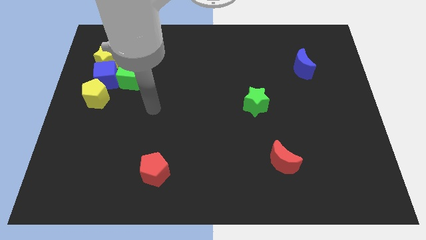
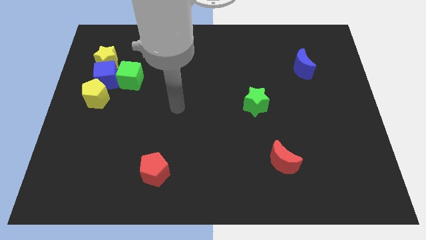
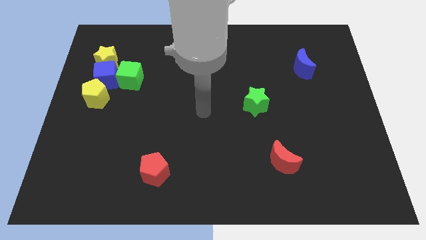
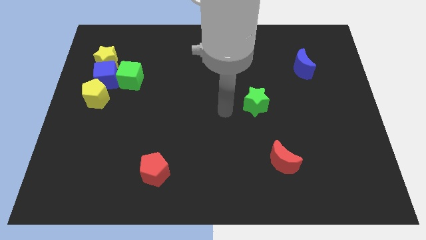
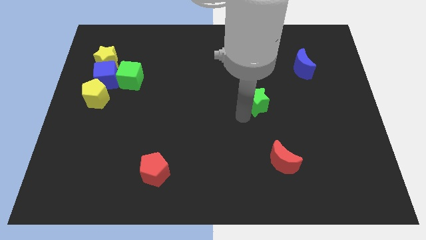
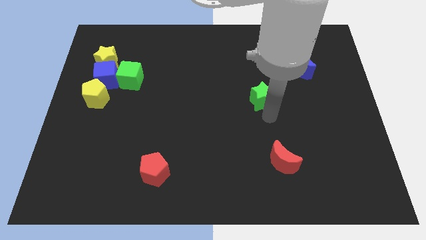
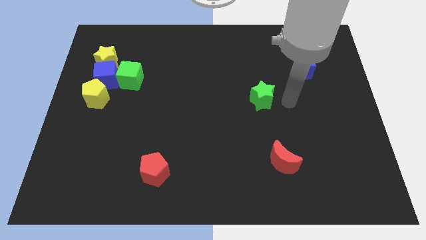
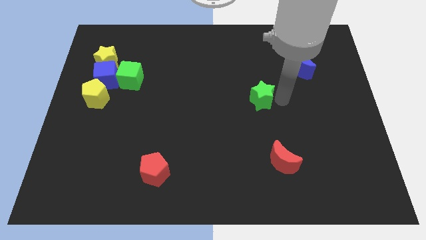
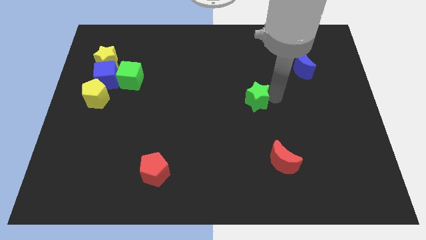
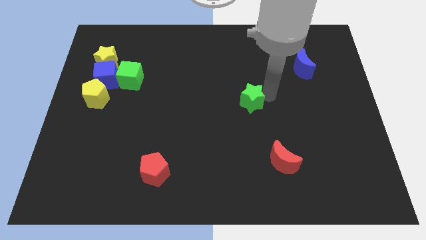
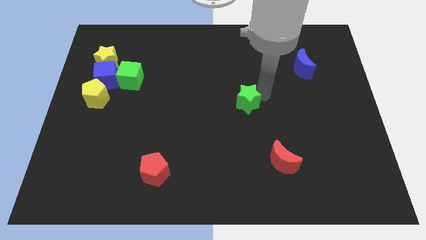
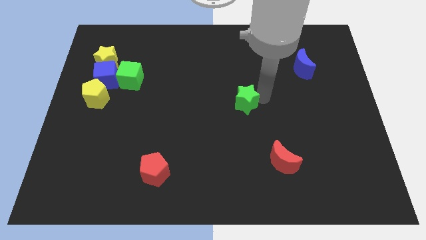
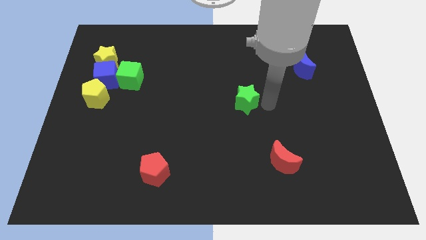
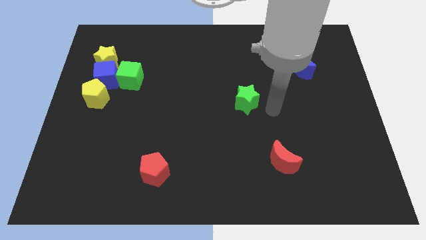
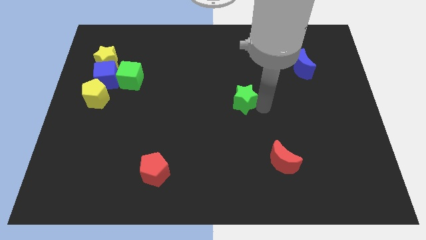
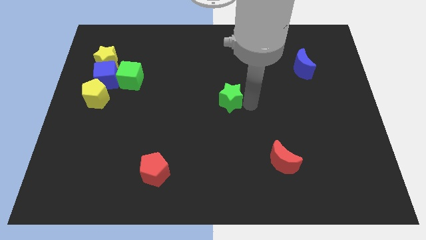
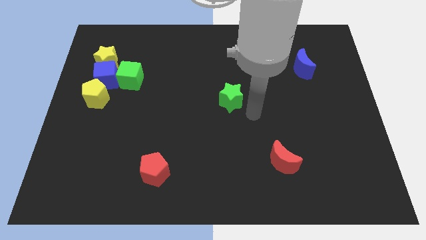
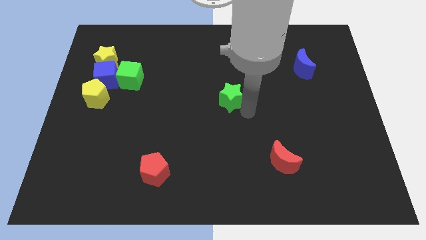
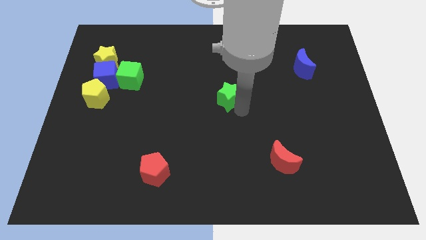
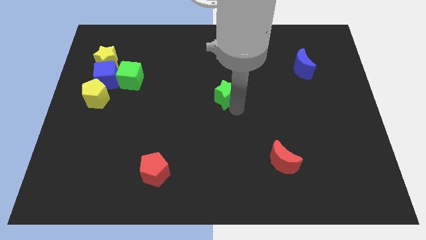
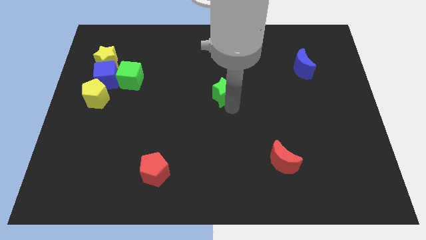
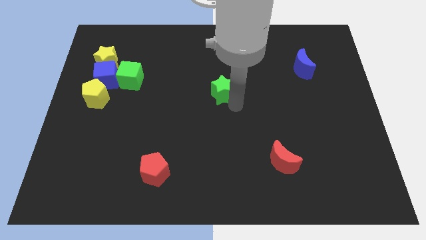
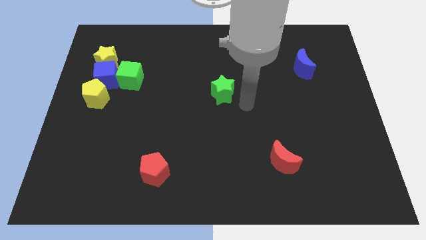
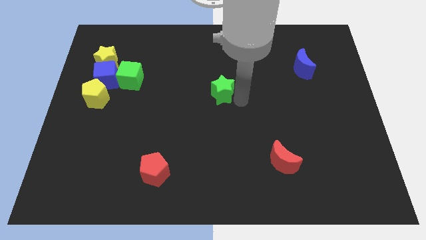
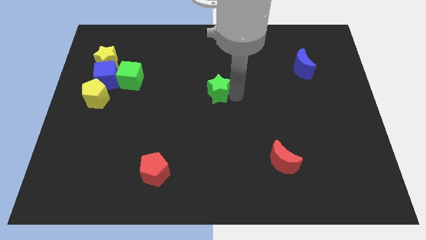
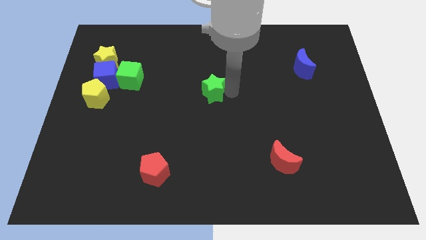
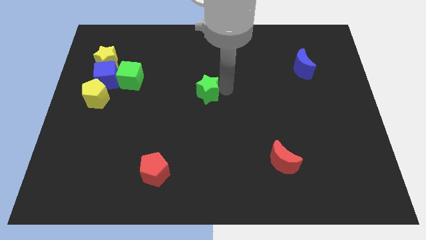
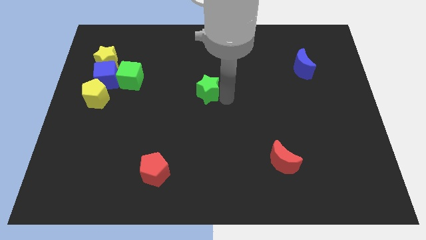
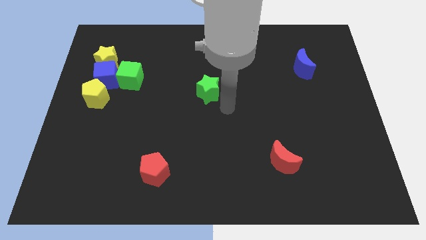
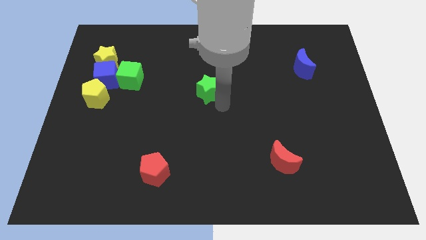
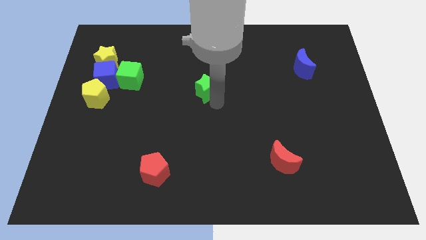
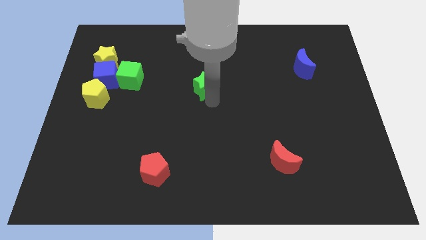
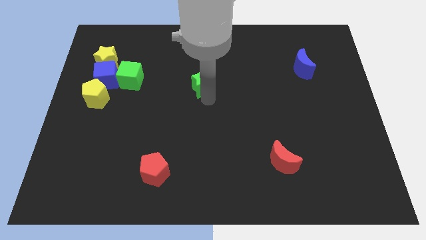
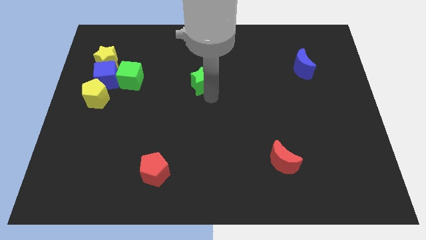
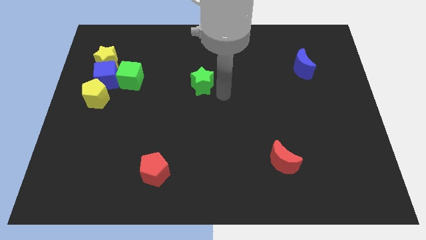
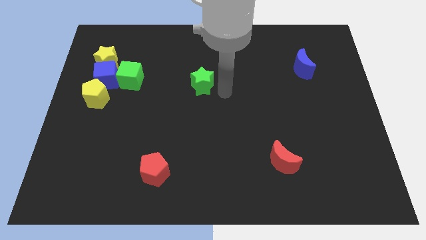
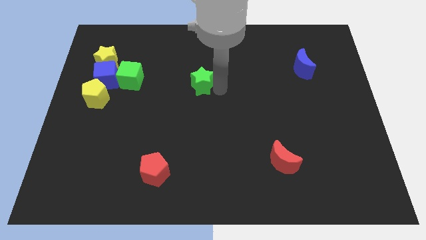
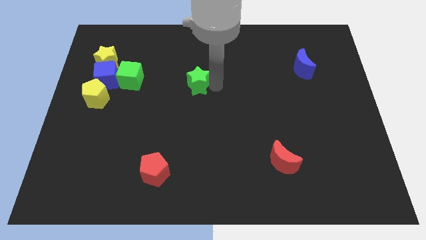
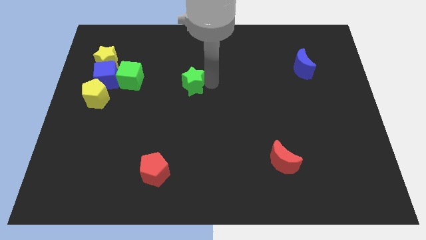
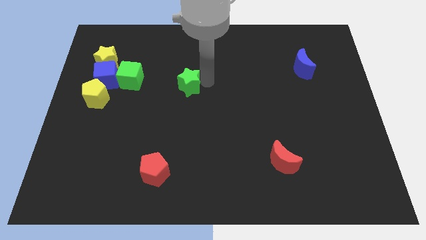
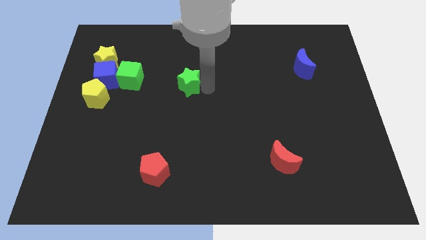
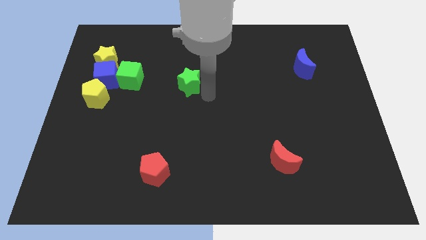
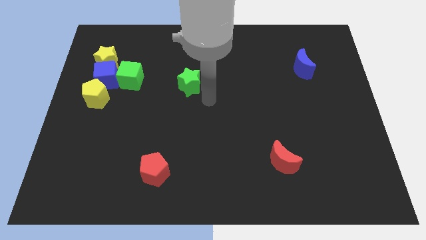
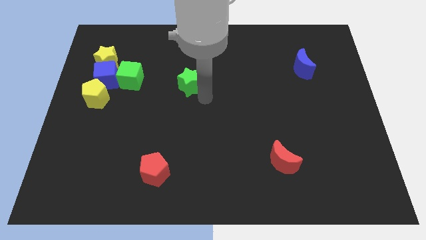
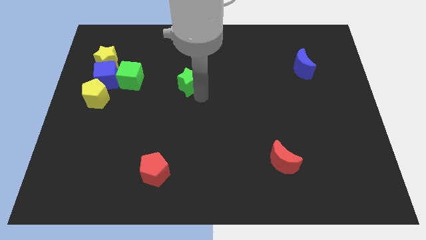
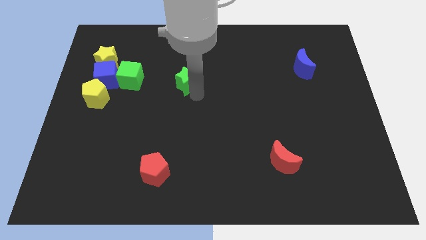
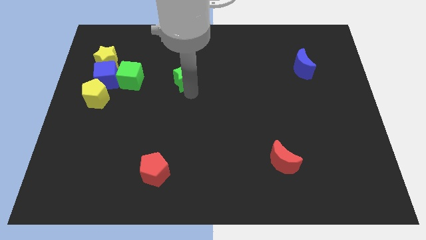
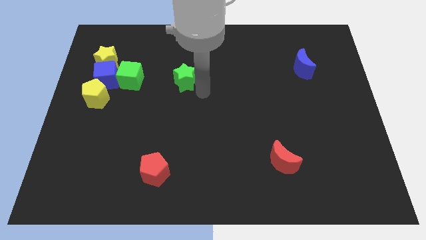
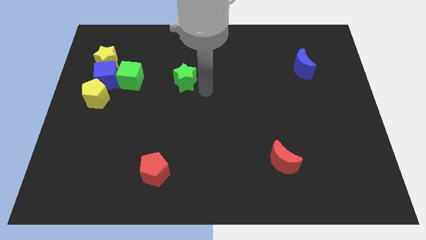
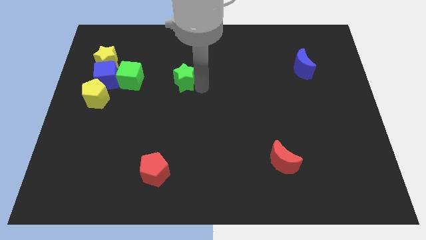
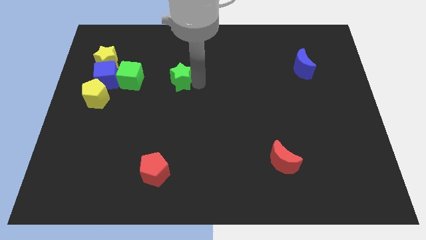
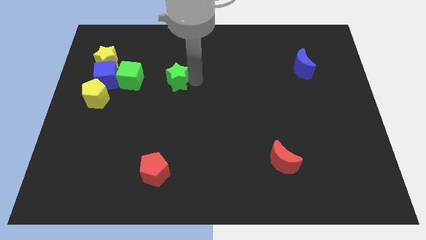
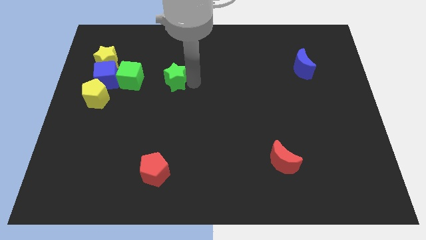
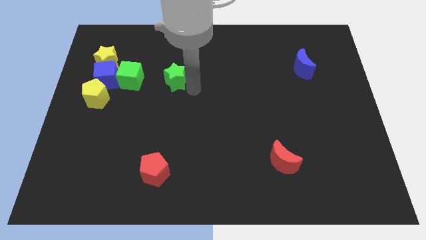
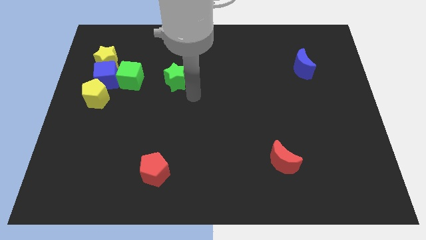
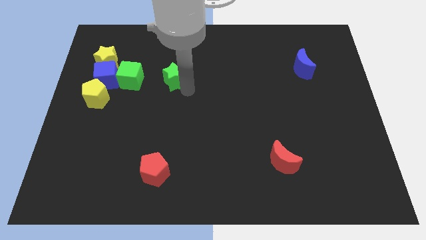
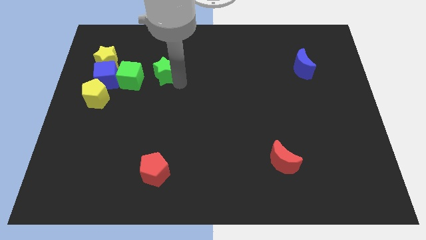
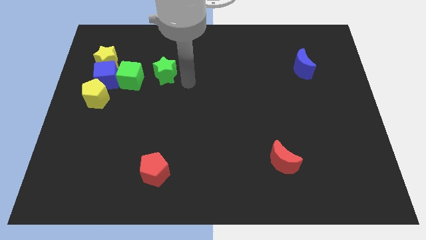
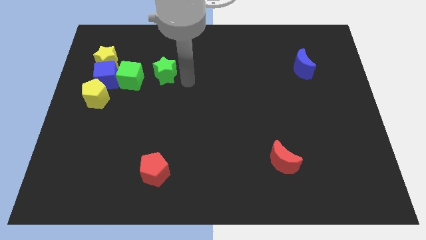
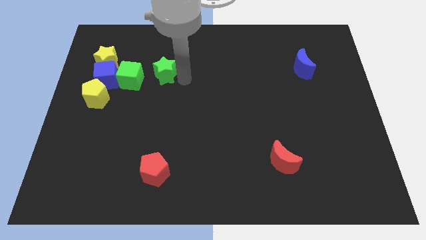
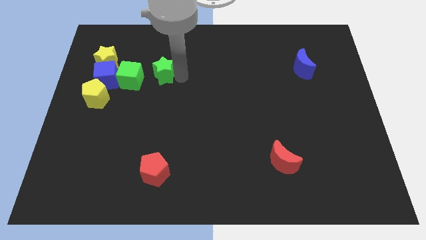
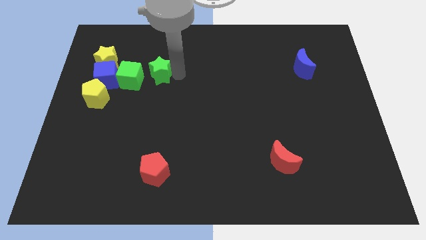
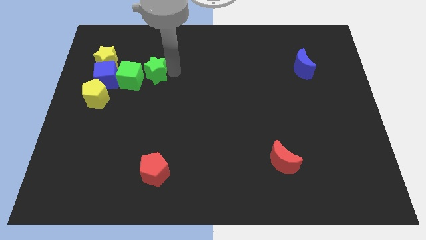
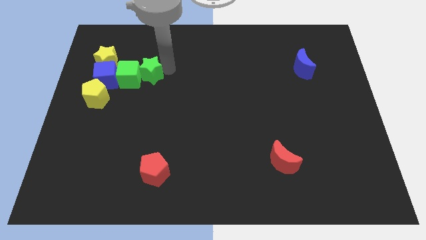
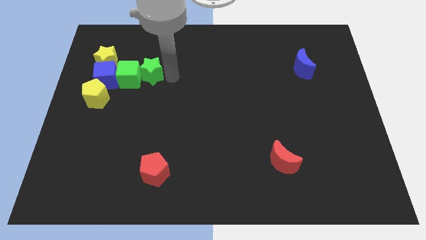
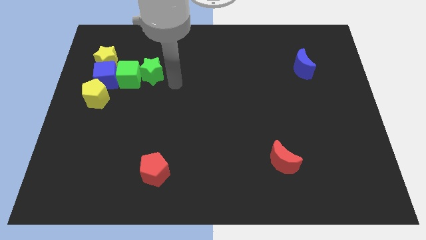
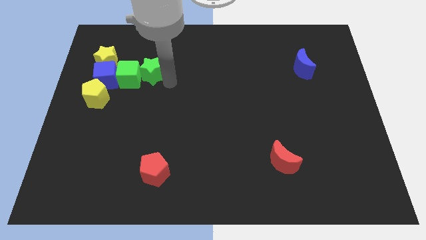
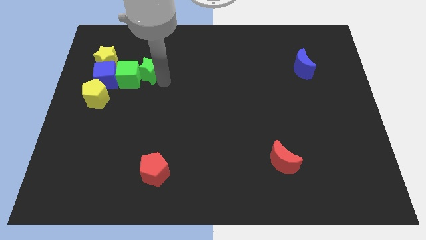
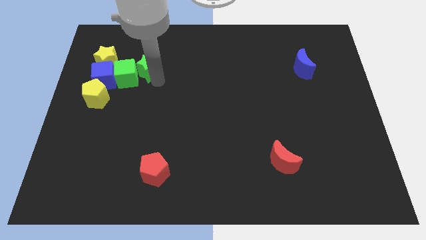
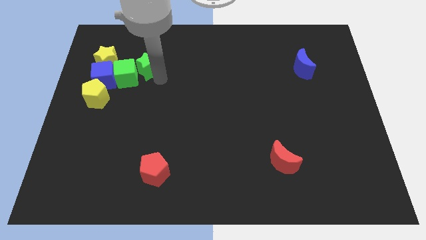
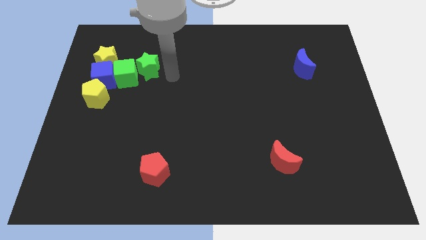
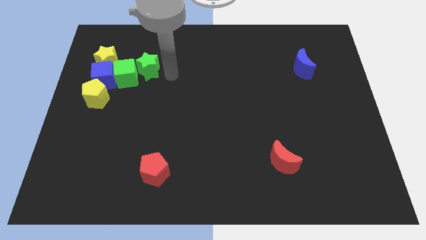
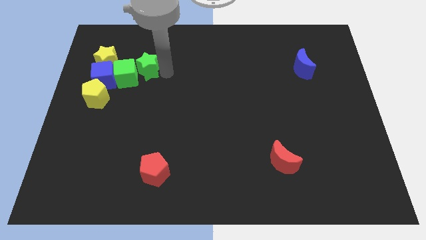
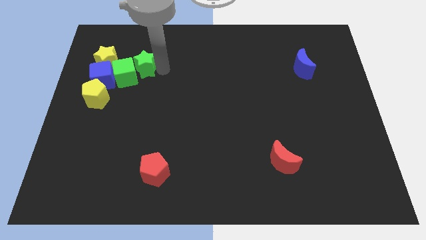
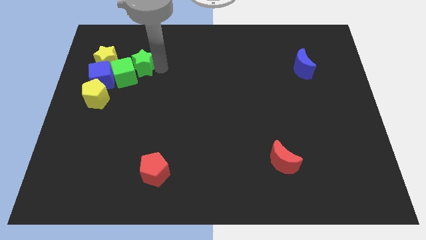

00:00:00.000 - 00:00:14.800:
slide the green star to the top right side of the blue cube
